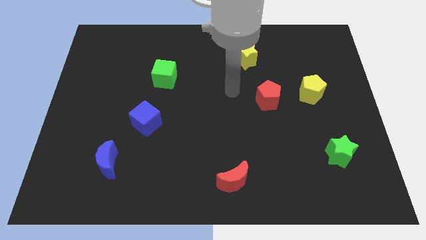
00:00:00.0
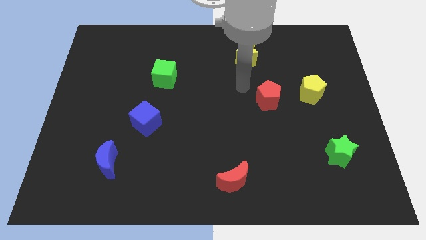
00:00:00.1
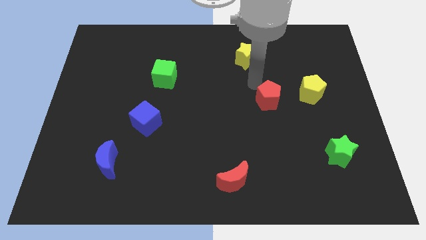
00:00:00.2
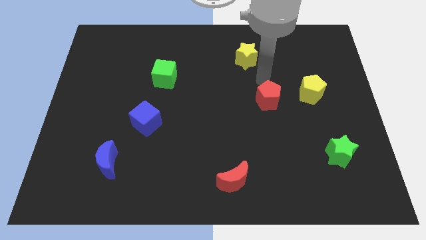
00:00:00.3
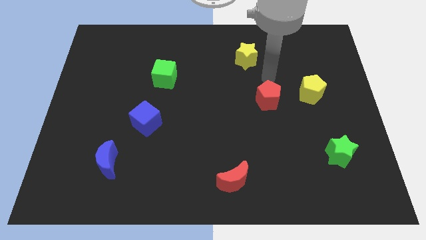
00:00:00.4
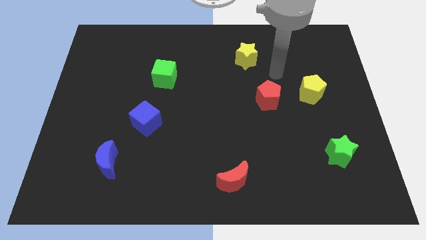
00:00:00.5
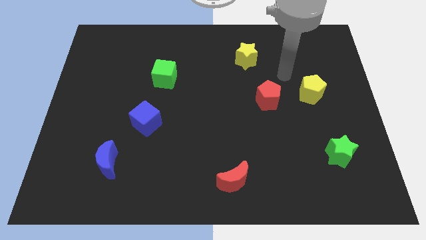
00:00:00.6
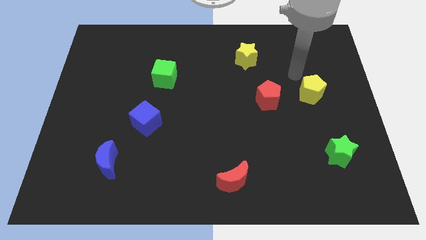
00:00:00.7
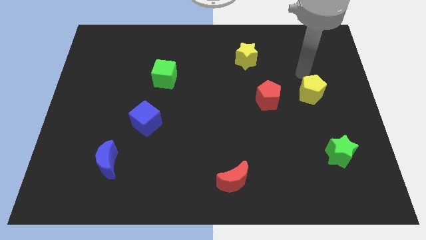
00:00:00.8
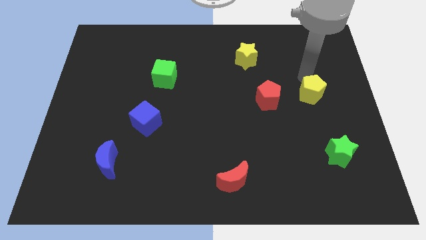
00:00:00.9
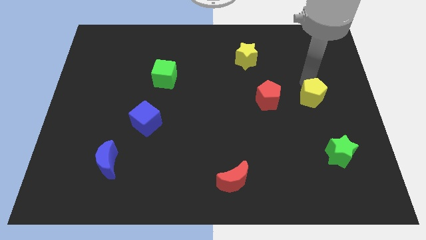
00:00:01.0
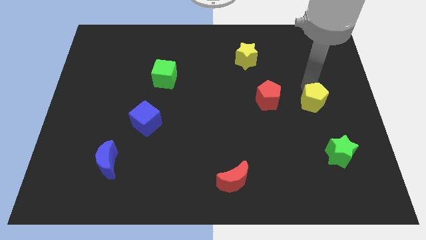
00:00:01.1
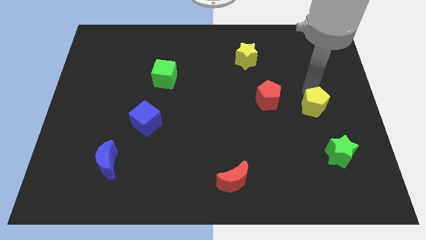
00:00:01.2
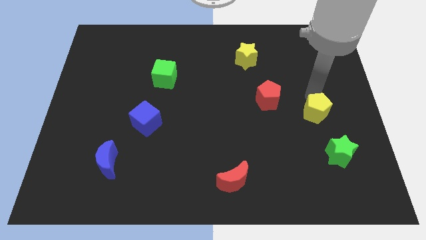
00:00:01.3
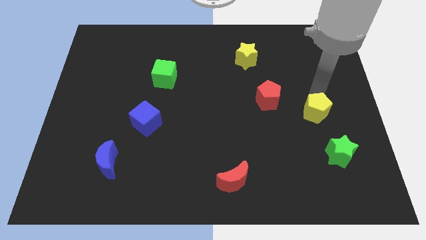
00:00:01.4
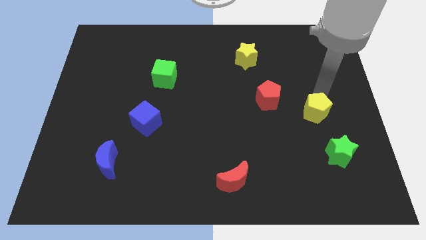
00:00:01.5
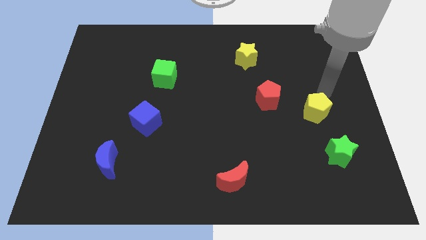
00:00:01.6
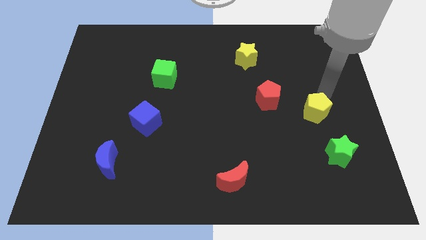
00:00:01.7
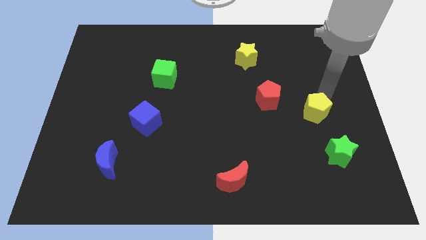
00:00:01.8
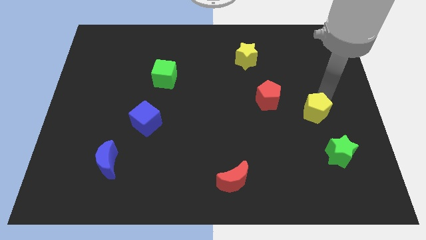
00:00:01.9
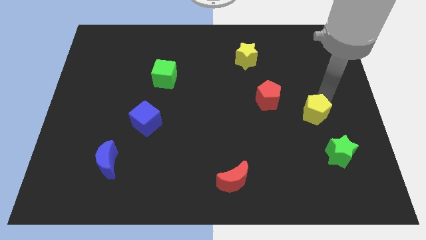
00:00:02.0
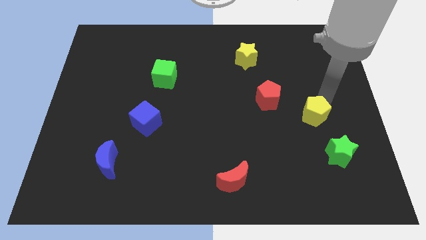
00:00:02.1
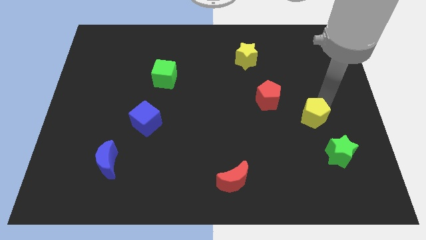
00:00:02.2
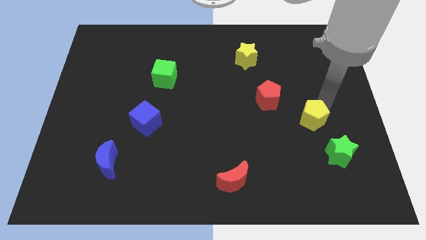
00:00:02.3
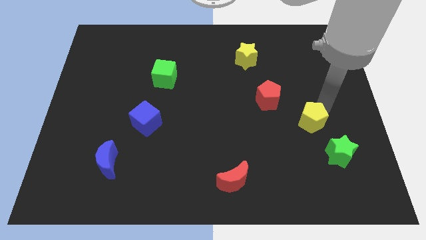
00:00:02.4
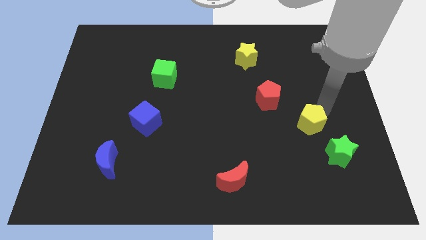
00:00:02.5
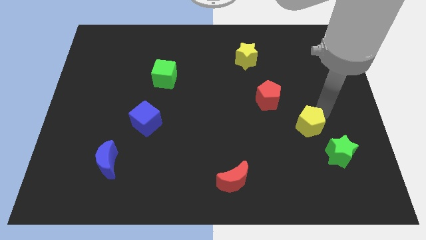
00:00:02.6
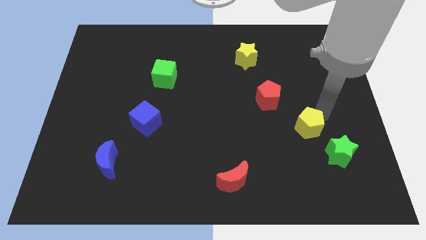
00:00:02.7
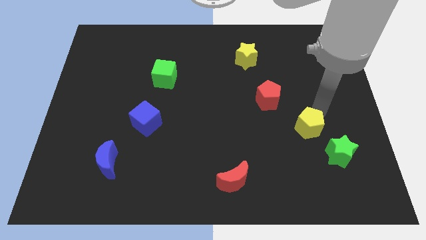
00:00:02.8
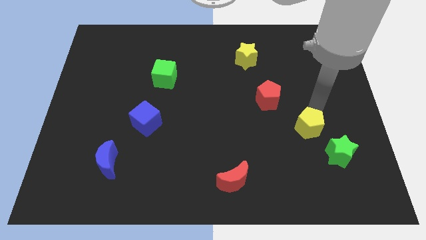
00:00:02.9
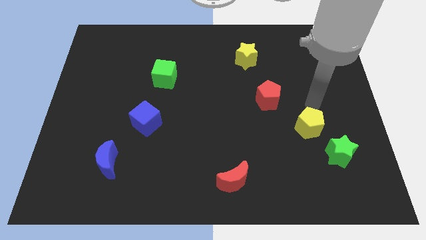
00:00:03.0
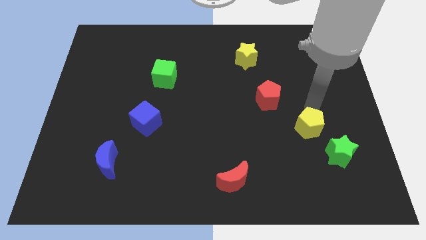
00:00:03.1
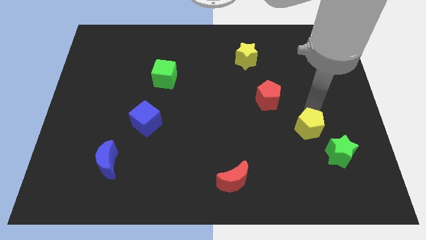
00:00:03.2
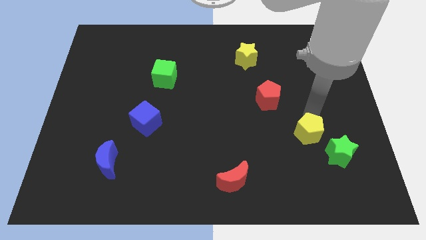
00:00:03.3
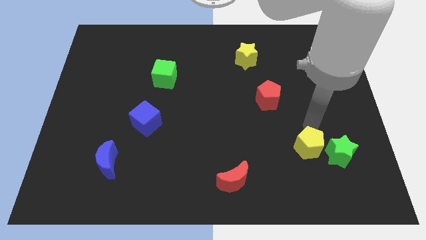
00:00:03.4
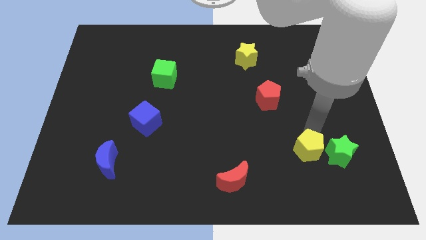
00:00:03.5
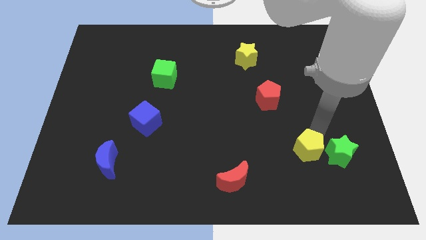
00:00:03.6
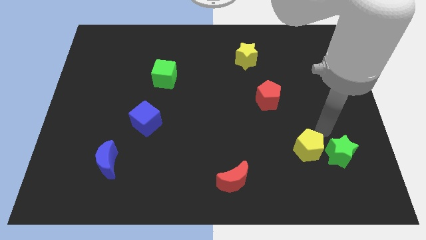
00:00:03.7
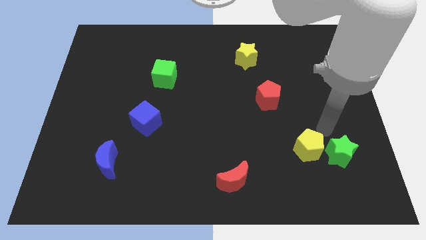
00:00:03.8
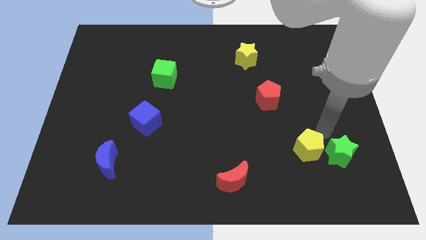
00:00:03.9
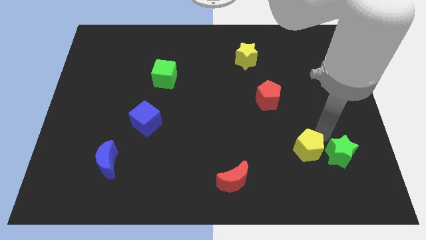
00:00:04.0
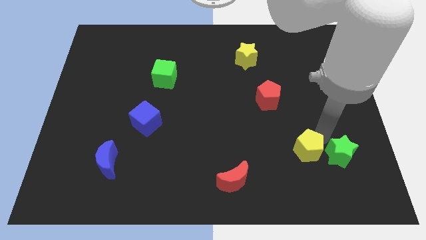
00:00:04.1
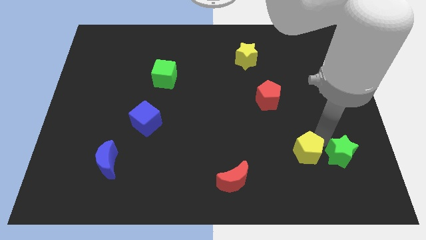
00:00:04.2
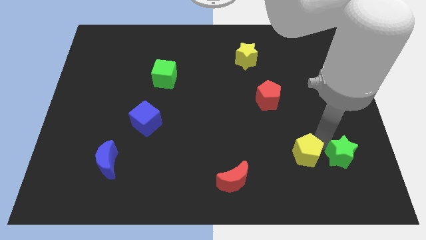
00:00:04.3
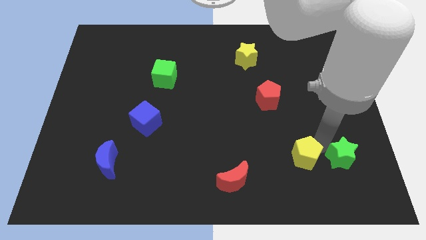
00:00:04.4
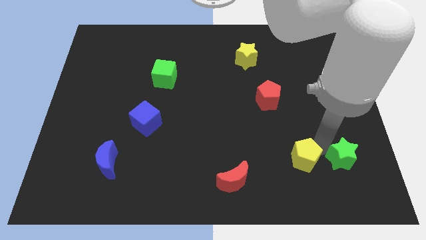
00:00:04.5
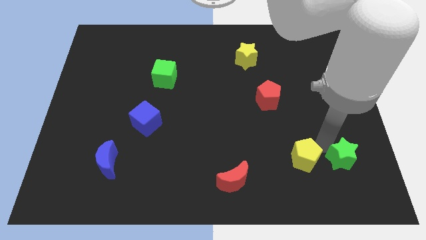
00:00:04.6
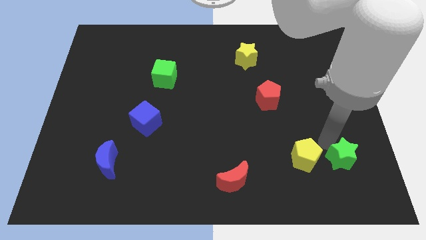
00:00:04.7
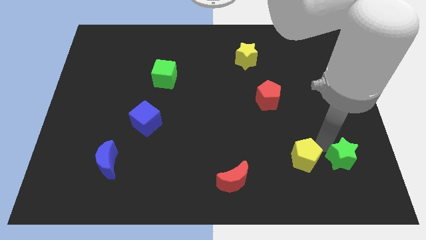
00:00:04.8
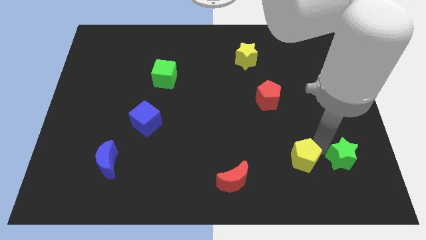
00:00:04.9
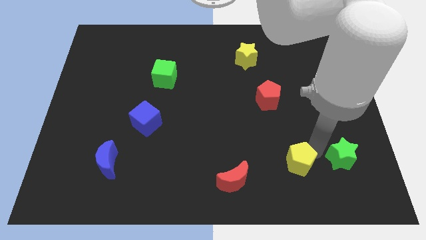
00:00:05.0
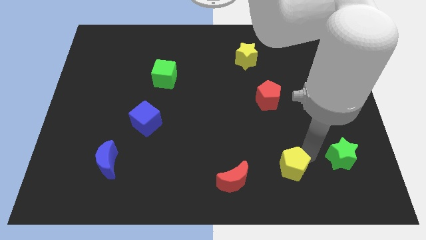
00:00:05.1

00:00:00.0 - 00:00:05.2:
put the yellow pentagon right of the red moon

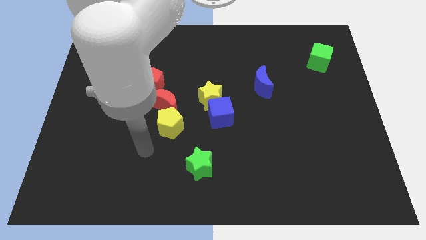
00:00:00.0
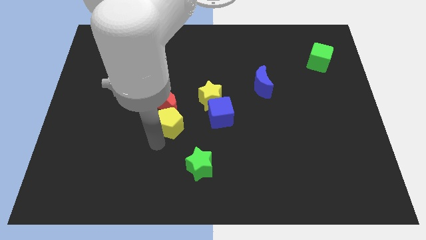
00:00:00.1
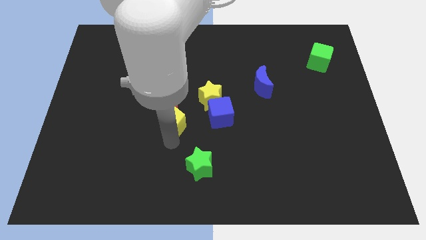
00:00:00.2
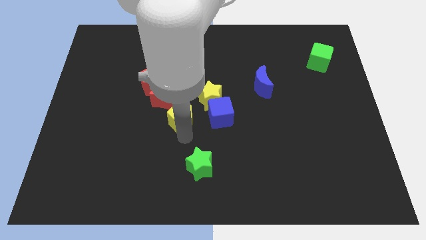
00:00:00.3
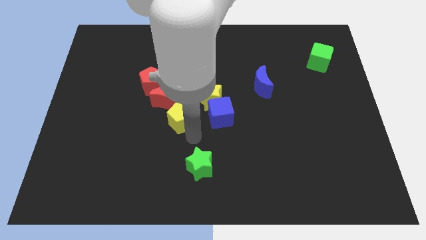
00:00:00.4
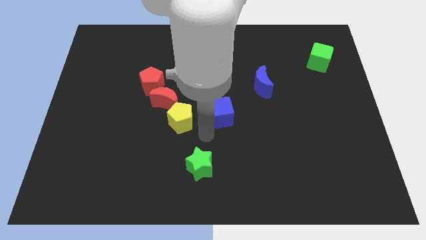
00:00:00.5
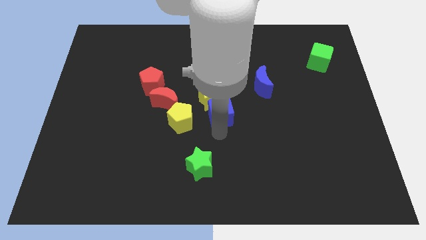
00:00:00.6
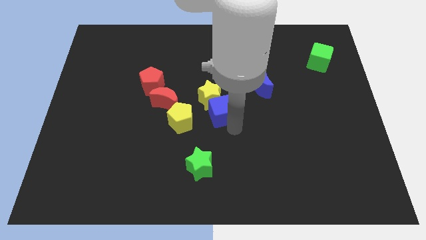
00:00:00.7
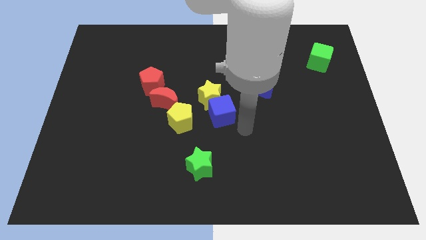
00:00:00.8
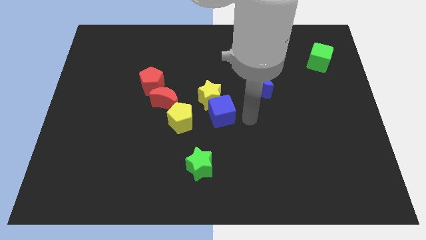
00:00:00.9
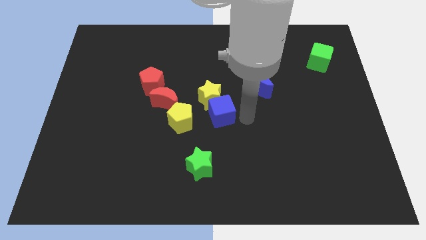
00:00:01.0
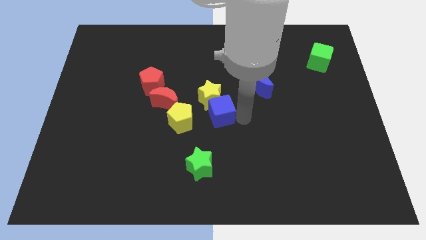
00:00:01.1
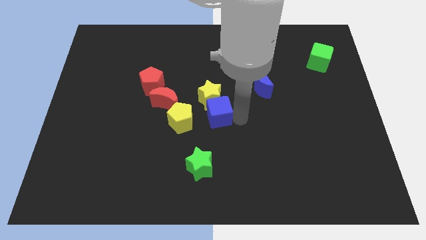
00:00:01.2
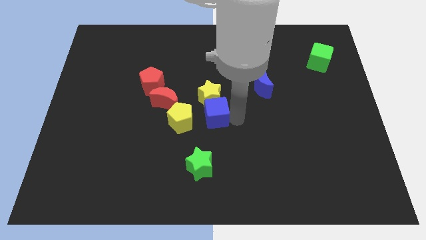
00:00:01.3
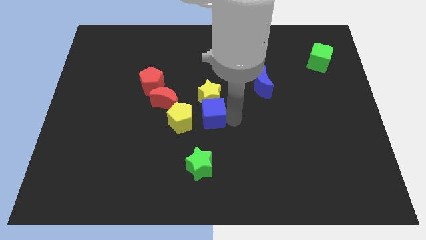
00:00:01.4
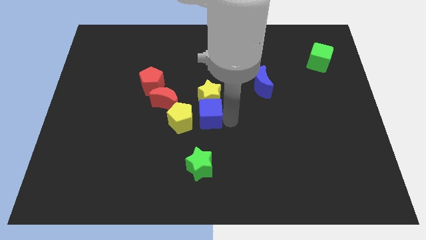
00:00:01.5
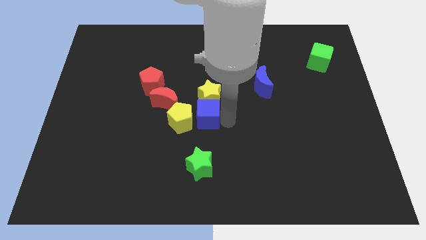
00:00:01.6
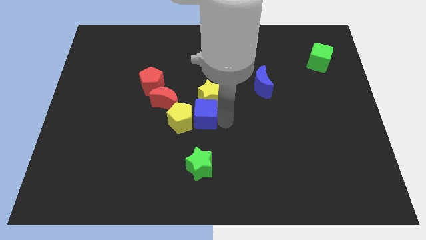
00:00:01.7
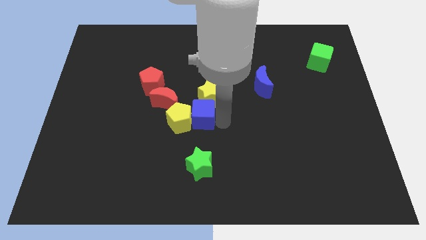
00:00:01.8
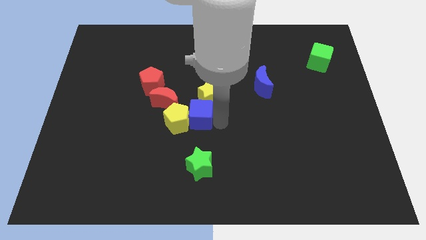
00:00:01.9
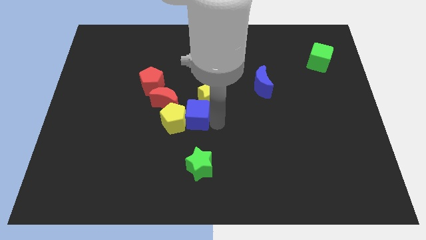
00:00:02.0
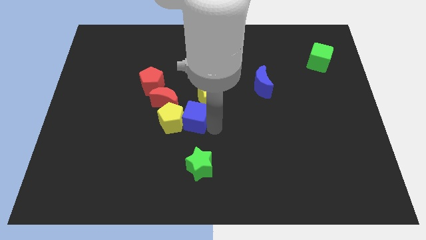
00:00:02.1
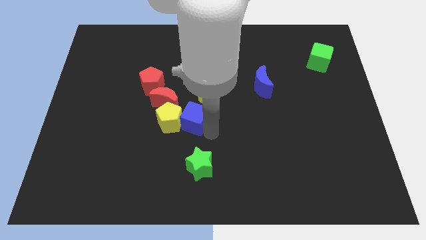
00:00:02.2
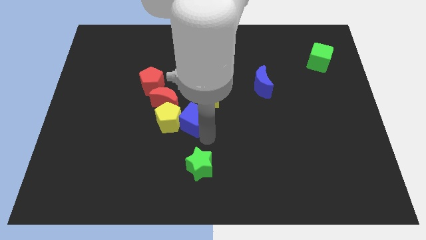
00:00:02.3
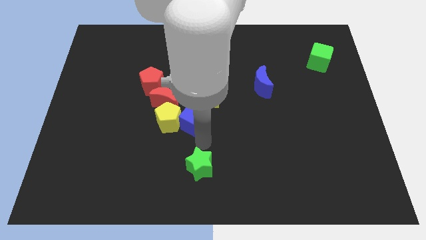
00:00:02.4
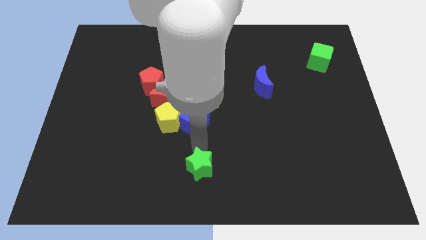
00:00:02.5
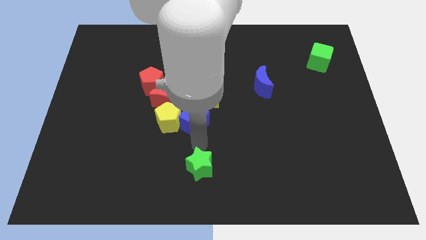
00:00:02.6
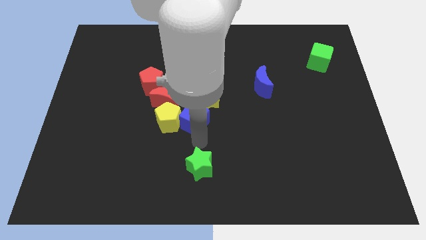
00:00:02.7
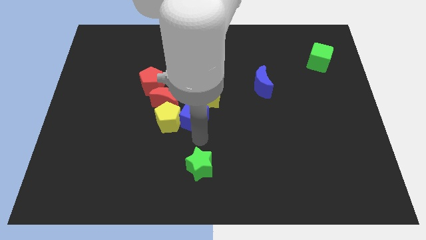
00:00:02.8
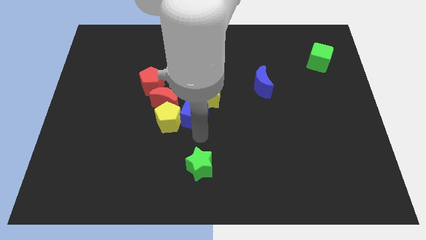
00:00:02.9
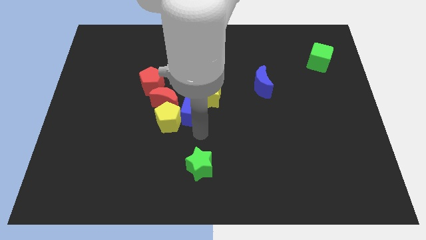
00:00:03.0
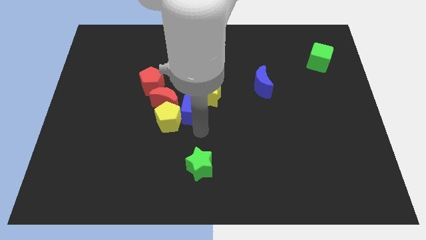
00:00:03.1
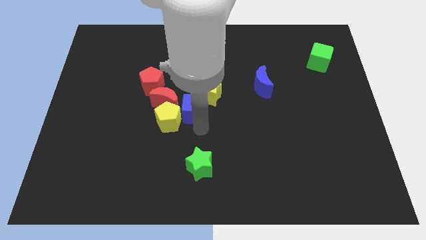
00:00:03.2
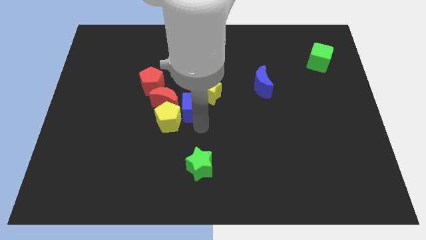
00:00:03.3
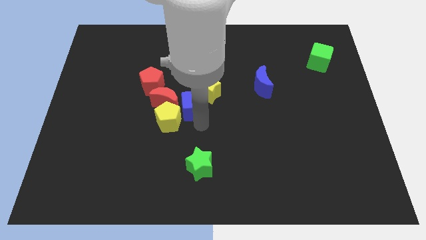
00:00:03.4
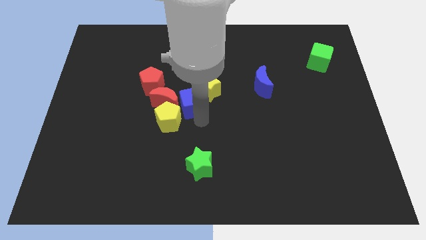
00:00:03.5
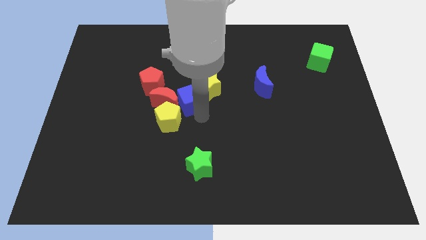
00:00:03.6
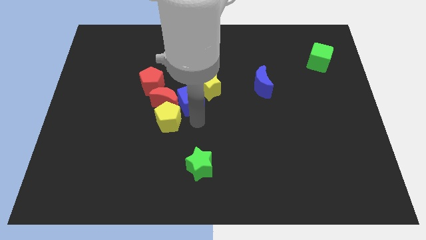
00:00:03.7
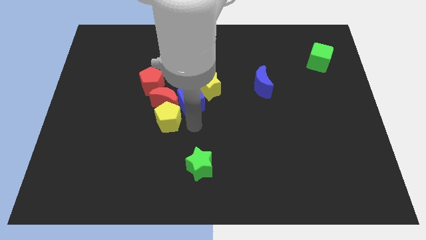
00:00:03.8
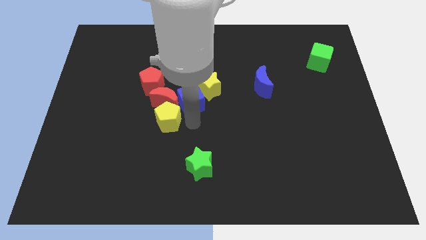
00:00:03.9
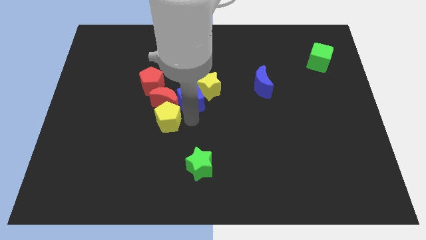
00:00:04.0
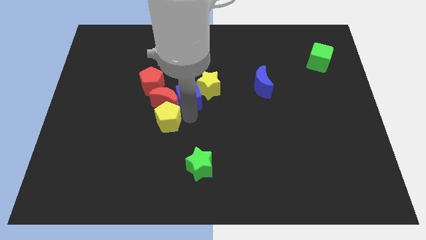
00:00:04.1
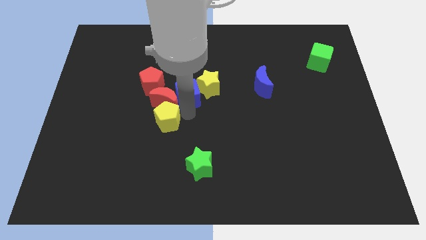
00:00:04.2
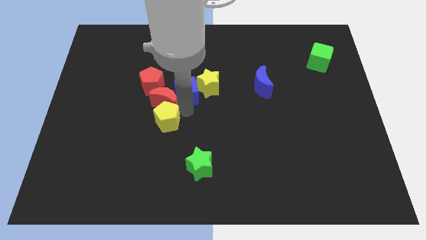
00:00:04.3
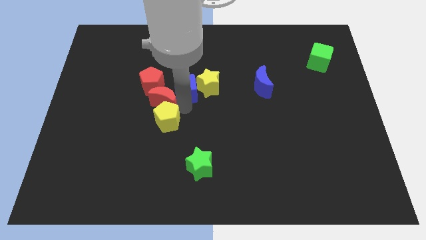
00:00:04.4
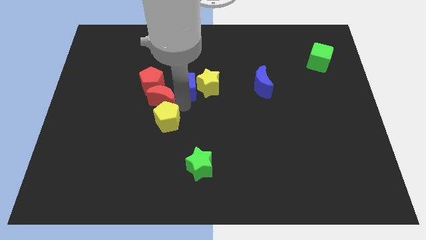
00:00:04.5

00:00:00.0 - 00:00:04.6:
move the blue cube diagonally up and to the left of the yellow star
